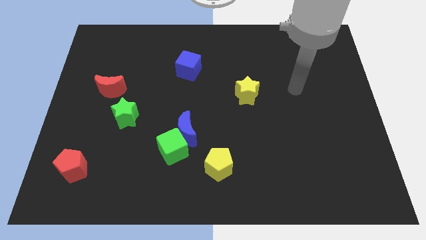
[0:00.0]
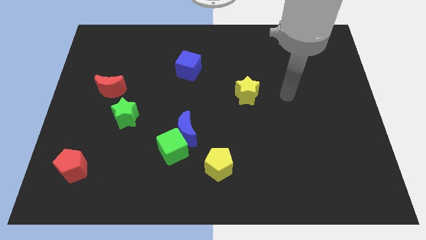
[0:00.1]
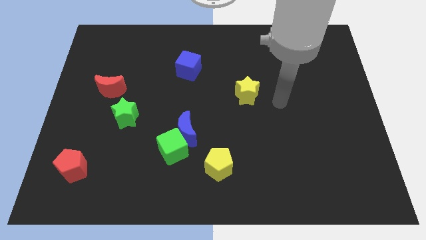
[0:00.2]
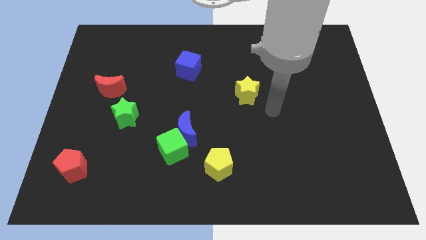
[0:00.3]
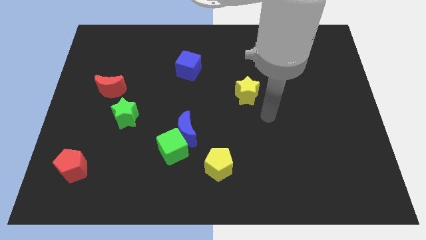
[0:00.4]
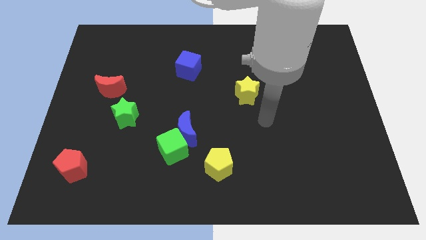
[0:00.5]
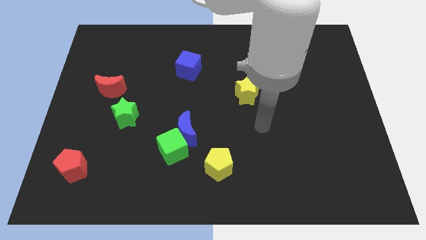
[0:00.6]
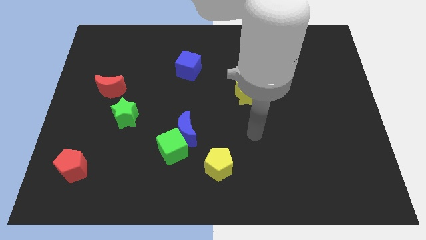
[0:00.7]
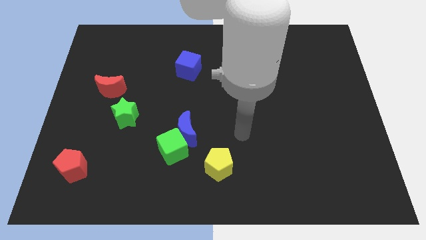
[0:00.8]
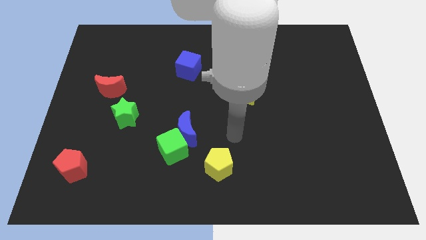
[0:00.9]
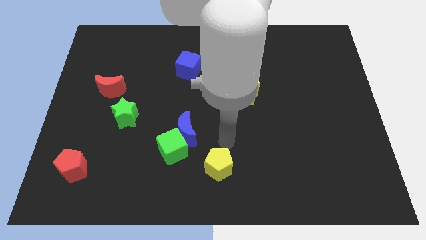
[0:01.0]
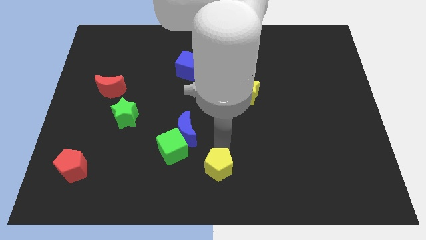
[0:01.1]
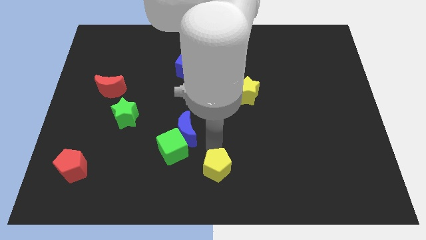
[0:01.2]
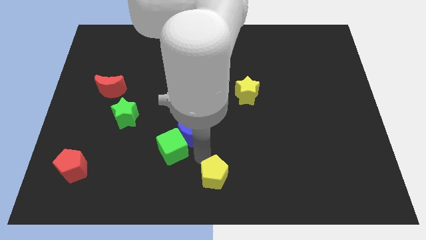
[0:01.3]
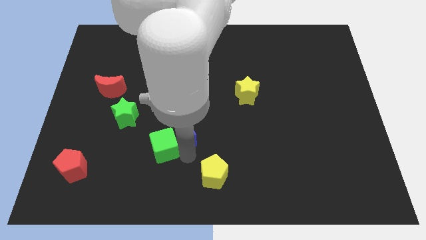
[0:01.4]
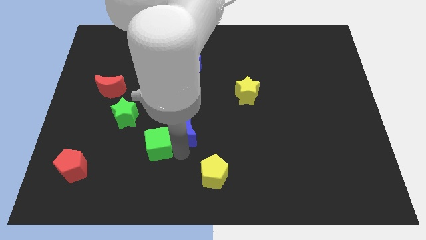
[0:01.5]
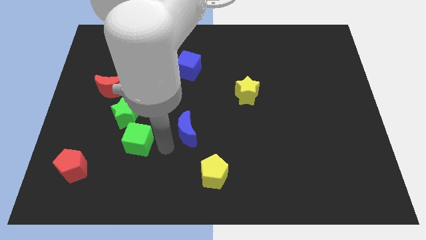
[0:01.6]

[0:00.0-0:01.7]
pull the blue moon apart from the green cube

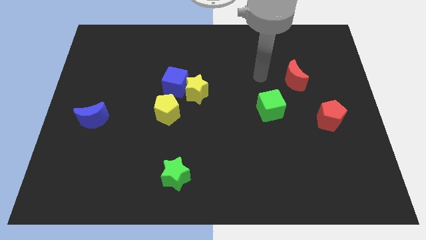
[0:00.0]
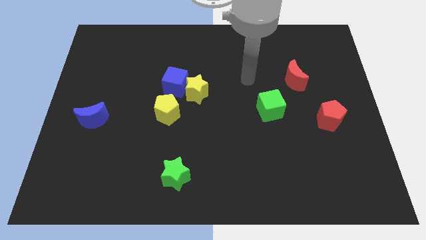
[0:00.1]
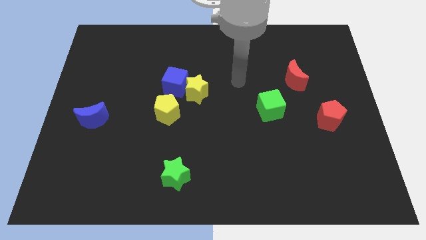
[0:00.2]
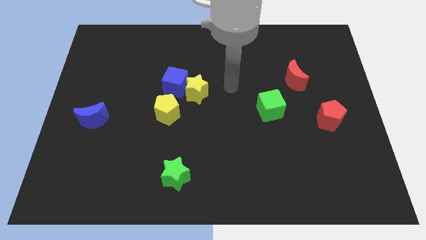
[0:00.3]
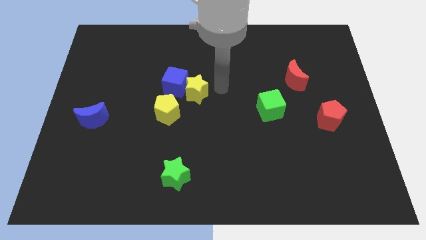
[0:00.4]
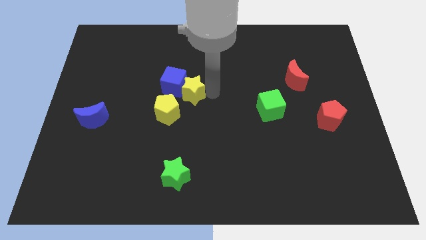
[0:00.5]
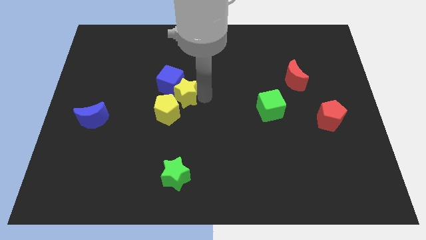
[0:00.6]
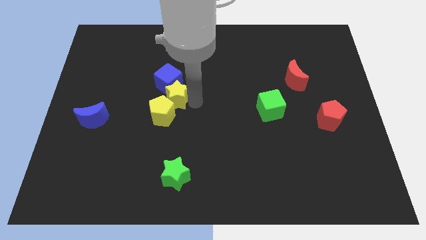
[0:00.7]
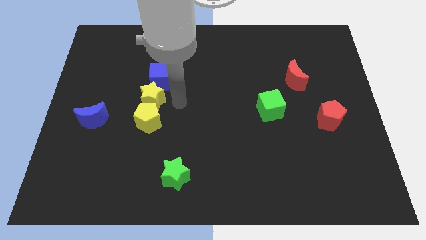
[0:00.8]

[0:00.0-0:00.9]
separate the blue cube from the yellow star and yellow pentagon

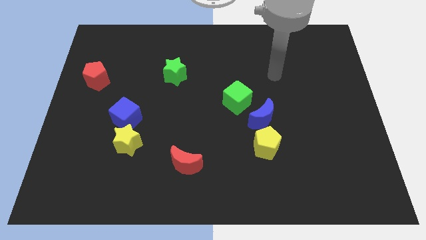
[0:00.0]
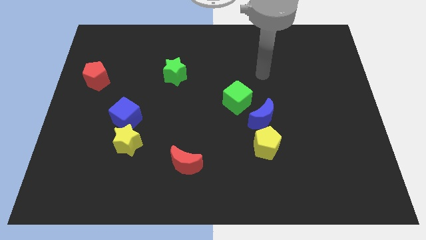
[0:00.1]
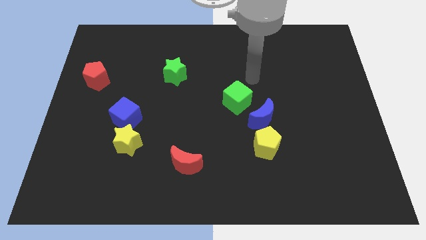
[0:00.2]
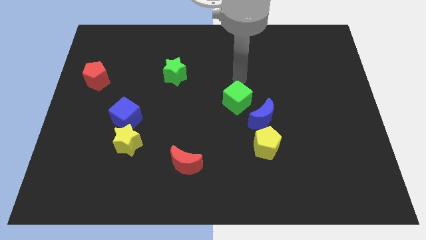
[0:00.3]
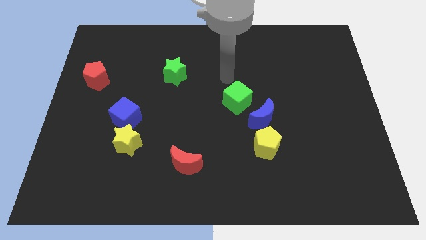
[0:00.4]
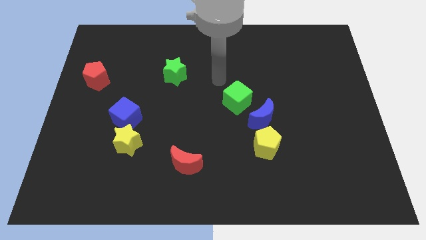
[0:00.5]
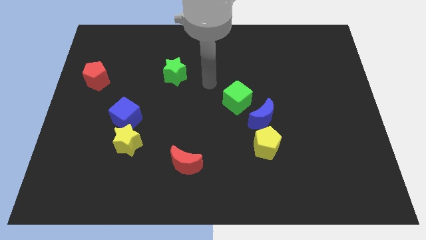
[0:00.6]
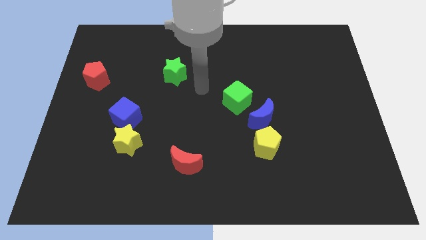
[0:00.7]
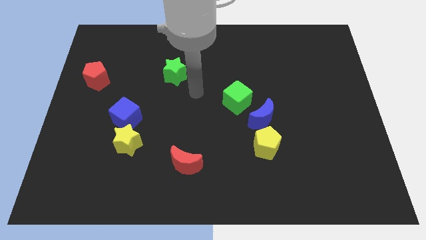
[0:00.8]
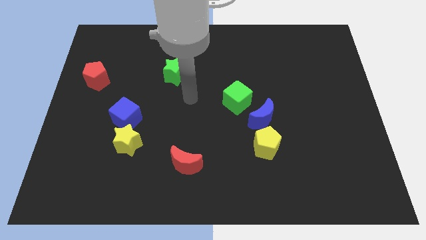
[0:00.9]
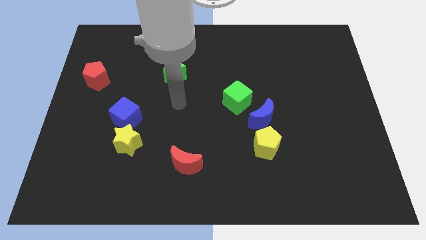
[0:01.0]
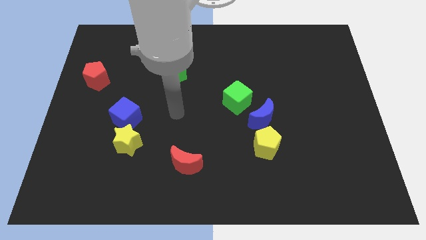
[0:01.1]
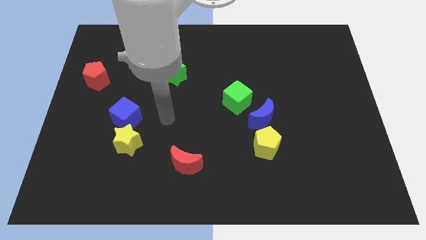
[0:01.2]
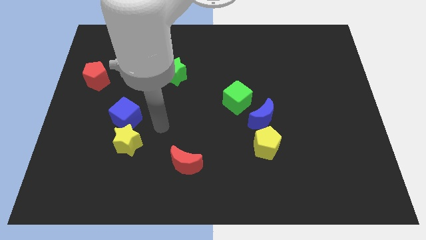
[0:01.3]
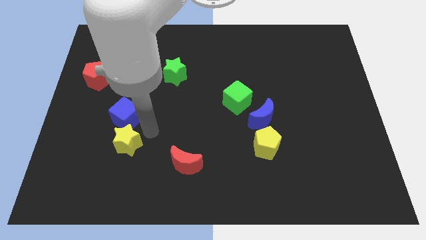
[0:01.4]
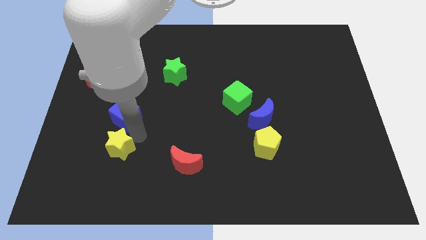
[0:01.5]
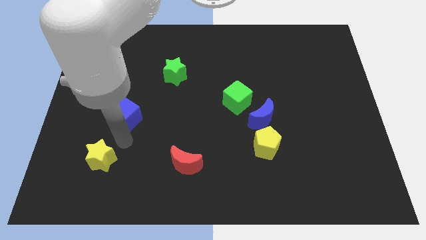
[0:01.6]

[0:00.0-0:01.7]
pull the blue cube apart from the yellow star

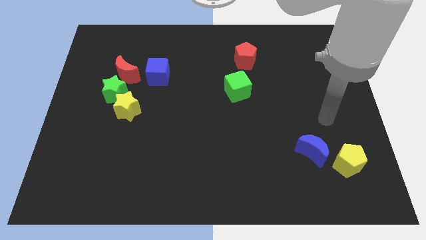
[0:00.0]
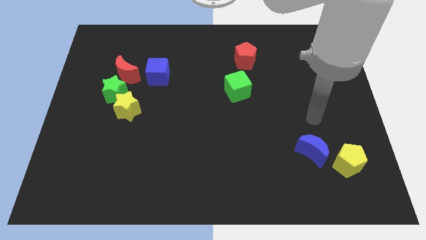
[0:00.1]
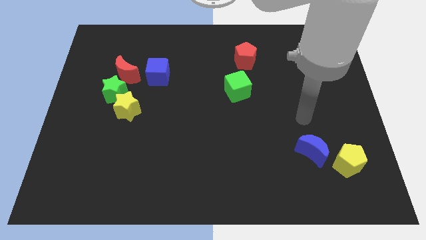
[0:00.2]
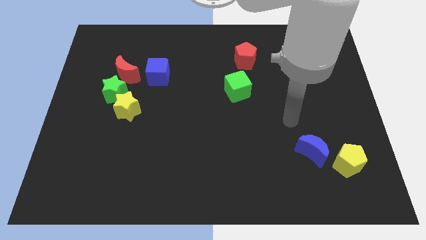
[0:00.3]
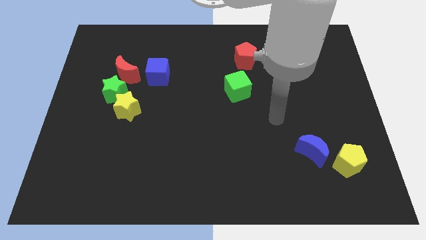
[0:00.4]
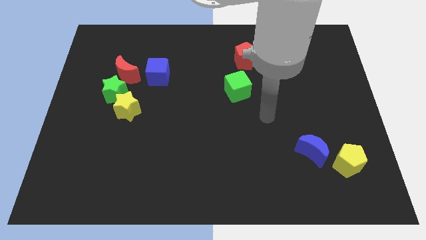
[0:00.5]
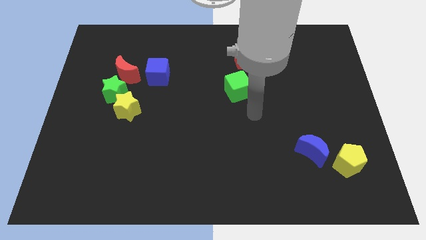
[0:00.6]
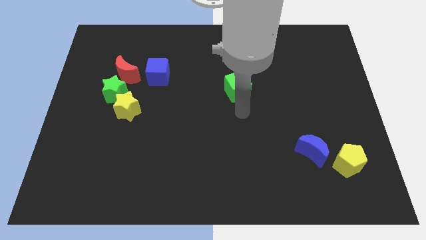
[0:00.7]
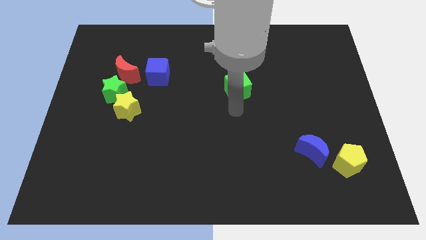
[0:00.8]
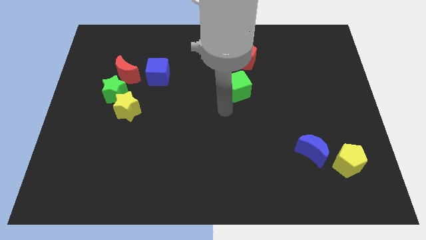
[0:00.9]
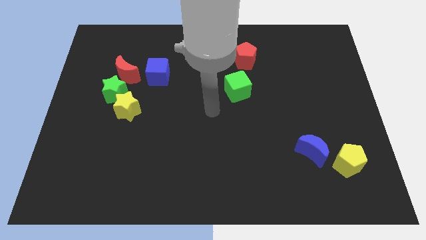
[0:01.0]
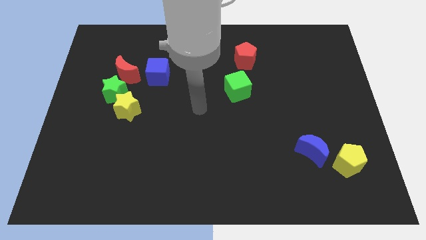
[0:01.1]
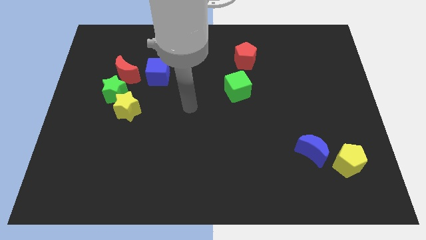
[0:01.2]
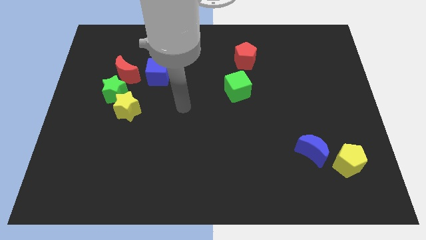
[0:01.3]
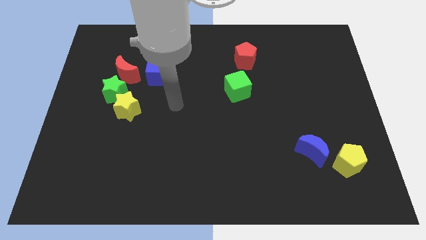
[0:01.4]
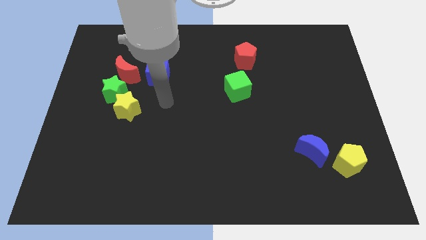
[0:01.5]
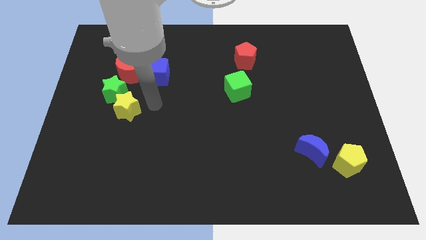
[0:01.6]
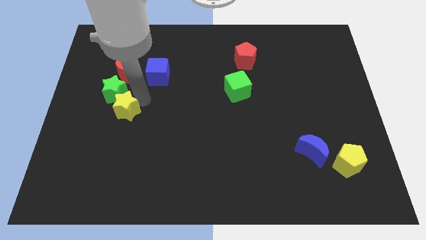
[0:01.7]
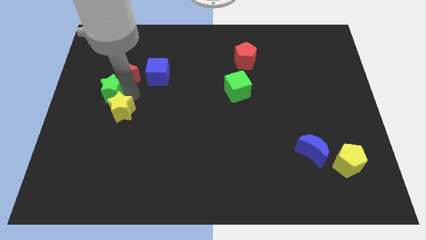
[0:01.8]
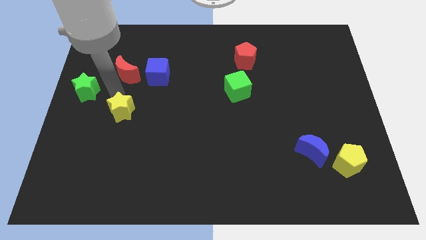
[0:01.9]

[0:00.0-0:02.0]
separate the yellow star from the green star

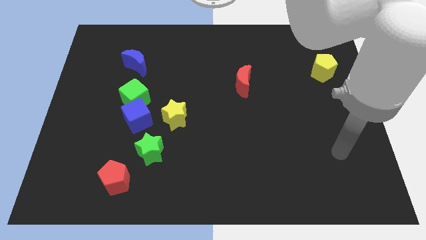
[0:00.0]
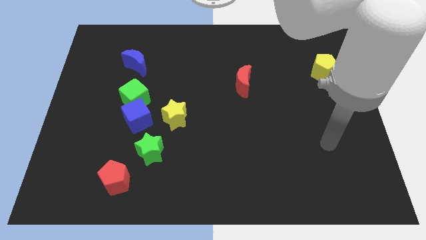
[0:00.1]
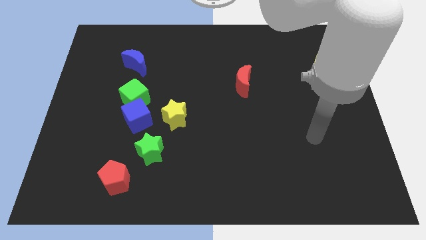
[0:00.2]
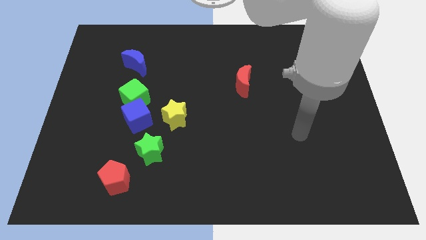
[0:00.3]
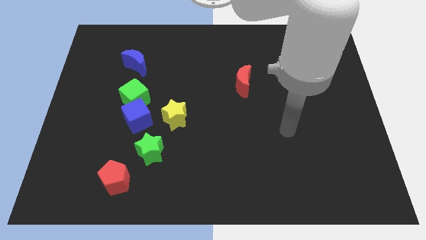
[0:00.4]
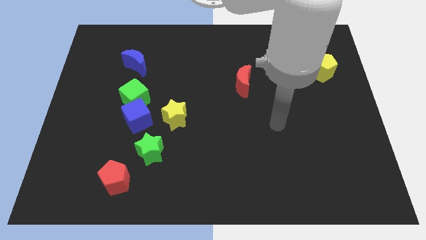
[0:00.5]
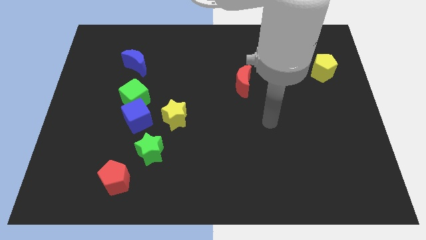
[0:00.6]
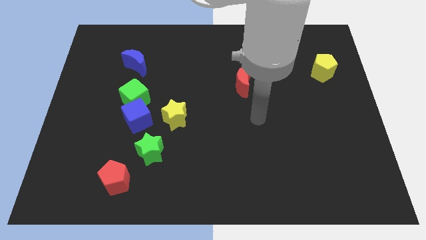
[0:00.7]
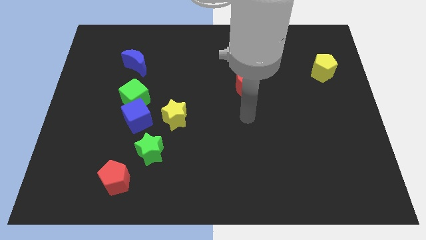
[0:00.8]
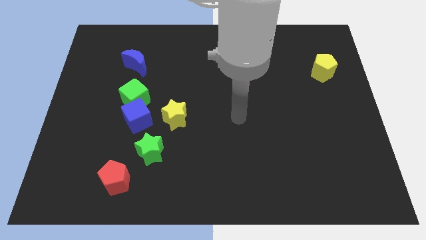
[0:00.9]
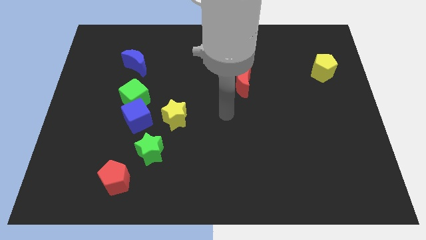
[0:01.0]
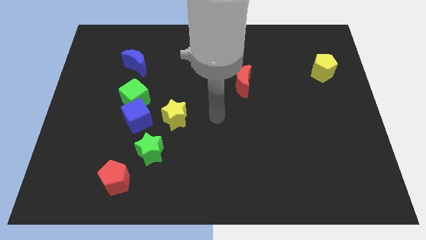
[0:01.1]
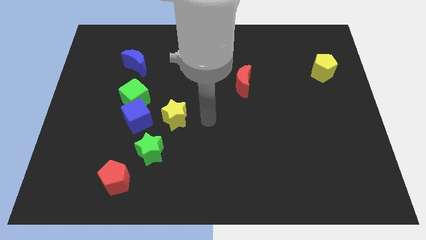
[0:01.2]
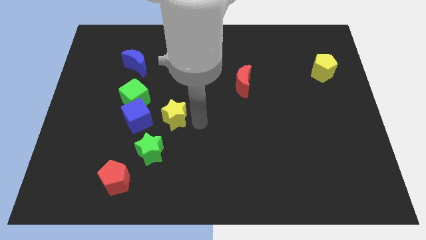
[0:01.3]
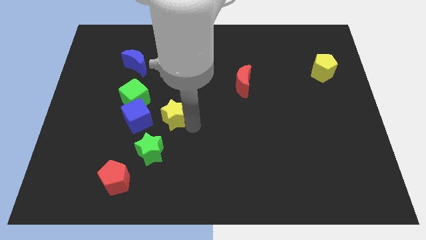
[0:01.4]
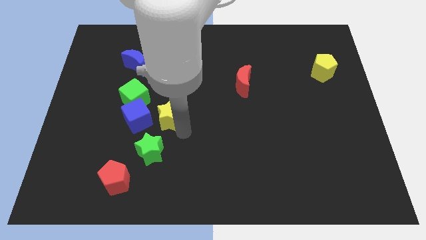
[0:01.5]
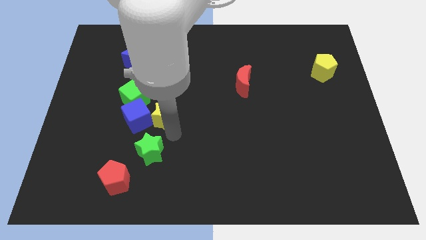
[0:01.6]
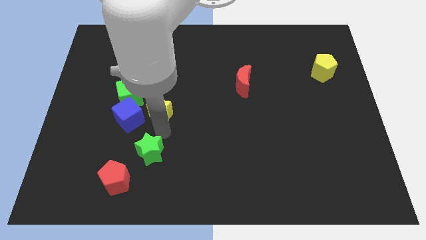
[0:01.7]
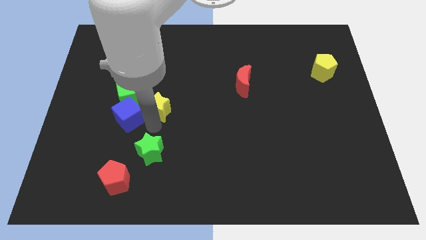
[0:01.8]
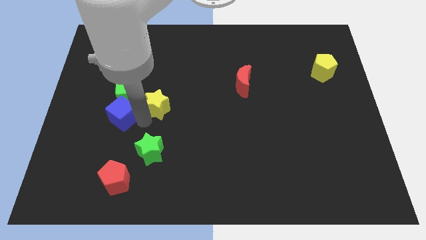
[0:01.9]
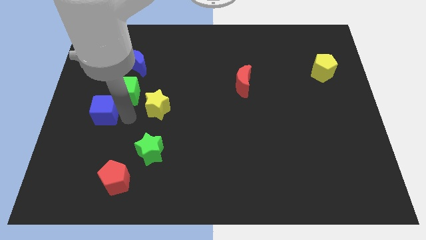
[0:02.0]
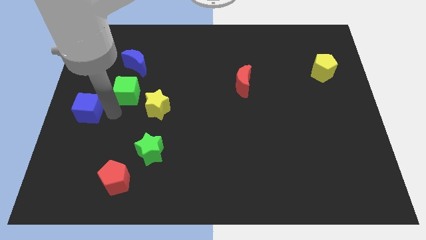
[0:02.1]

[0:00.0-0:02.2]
separate the green cube from the blue cube

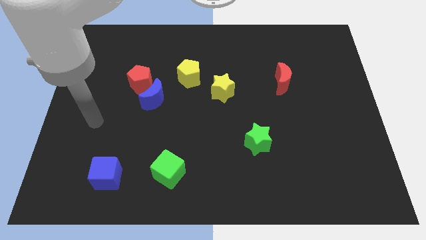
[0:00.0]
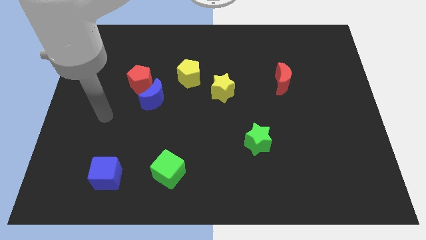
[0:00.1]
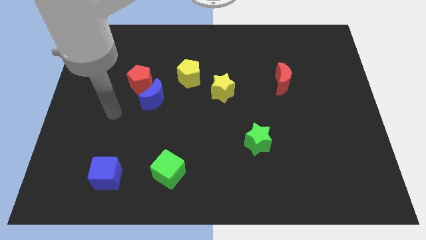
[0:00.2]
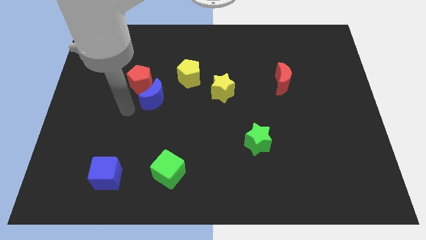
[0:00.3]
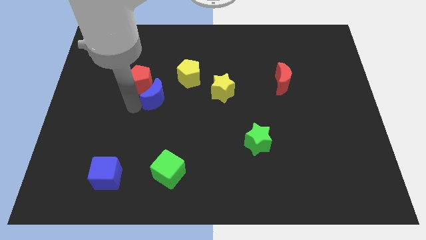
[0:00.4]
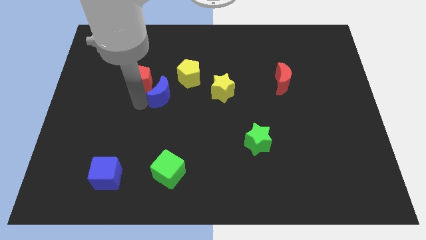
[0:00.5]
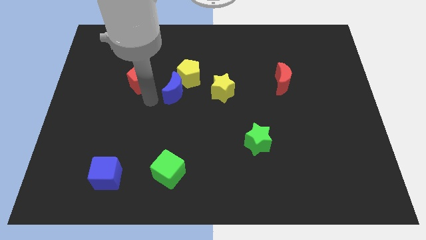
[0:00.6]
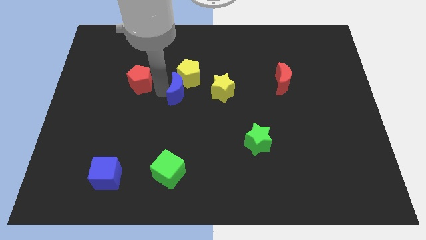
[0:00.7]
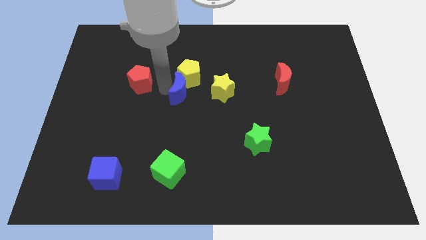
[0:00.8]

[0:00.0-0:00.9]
pull the red pentagon apart from the blue moon
